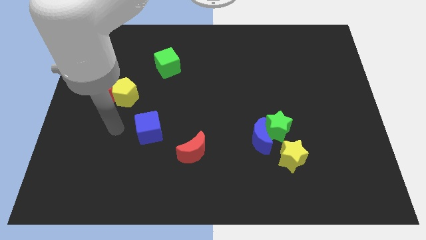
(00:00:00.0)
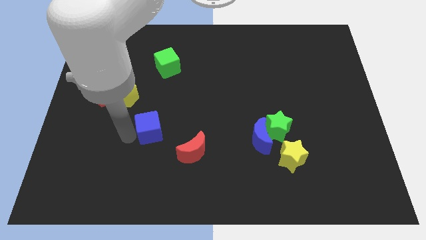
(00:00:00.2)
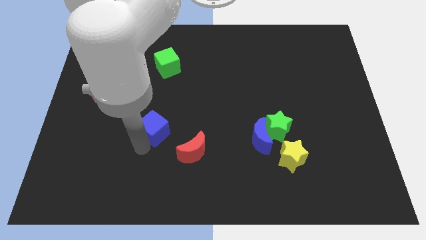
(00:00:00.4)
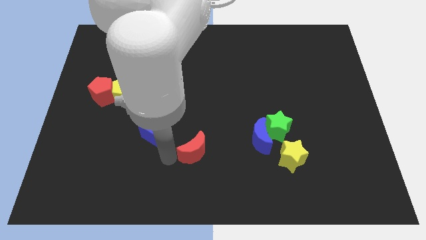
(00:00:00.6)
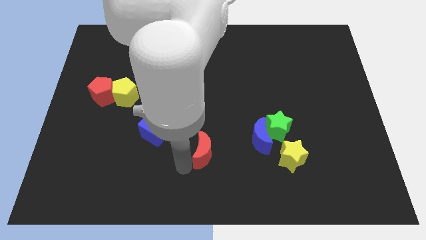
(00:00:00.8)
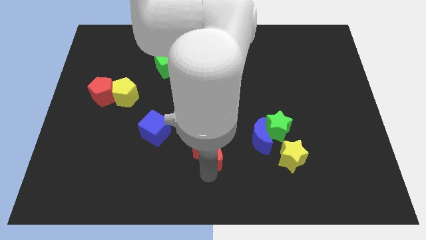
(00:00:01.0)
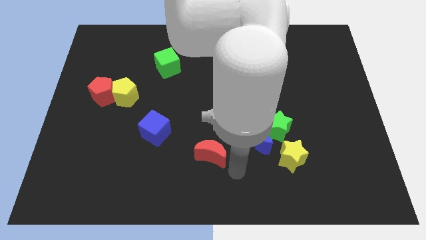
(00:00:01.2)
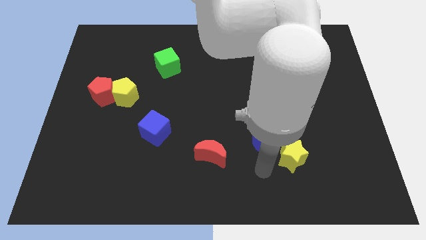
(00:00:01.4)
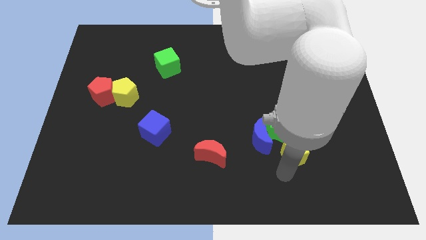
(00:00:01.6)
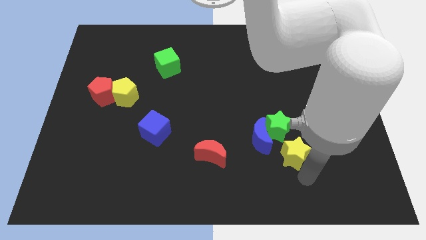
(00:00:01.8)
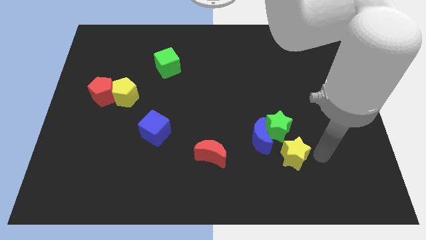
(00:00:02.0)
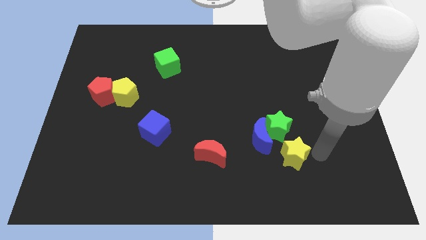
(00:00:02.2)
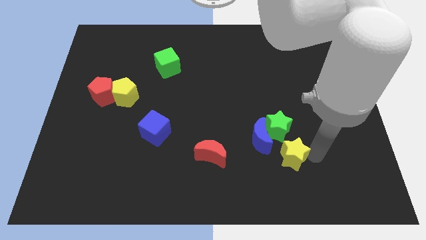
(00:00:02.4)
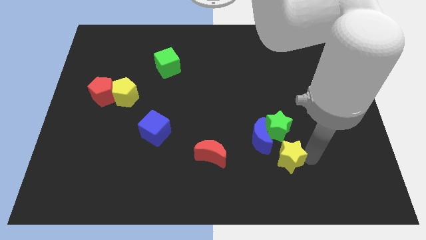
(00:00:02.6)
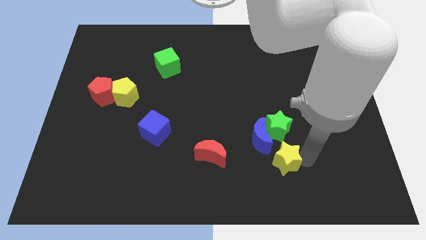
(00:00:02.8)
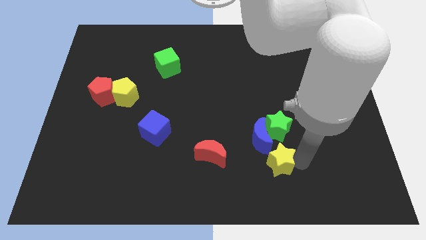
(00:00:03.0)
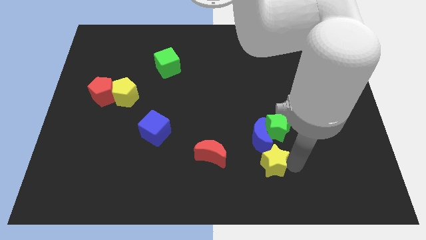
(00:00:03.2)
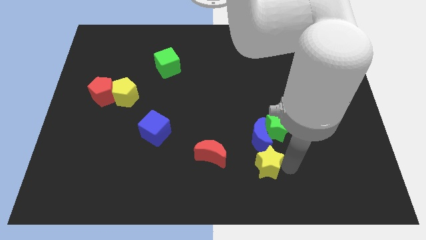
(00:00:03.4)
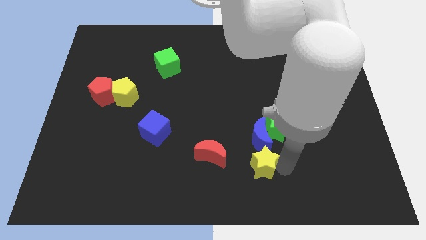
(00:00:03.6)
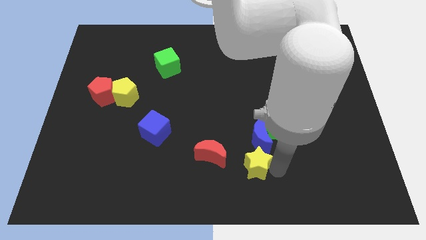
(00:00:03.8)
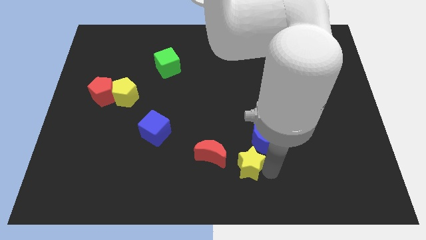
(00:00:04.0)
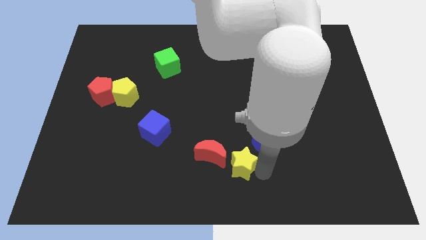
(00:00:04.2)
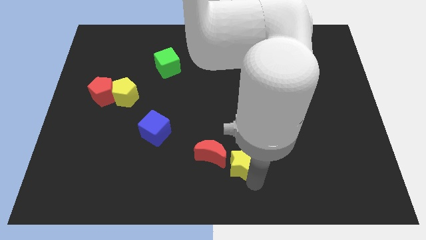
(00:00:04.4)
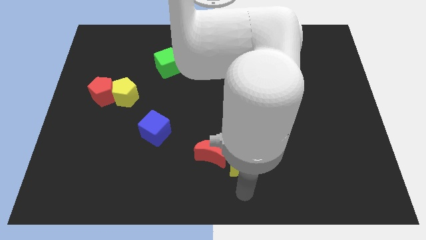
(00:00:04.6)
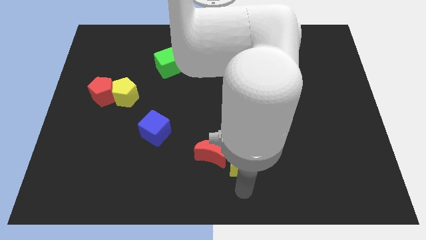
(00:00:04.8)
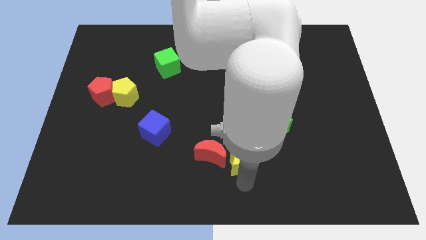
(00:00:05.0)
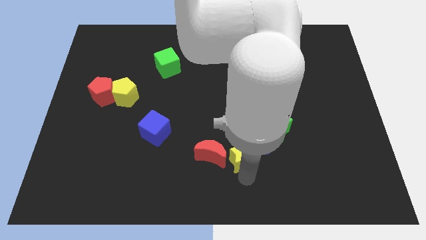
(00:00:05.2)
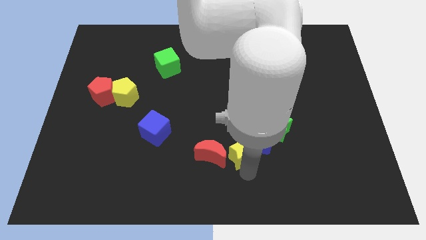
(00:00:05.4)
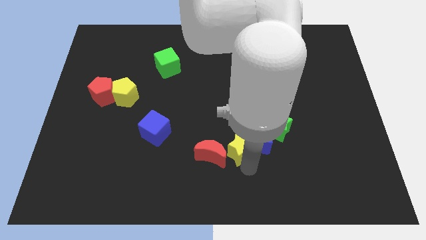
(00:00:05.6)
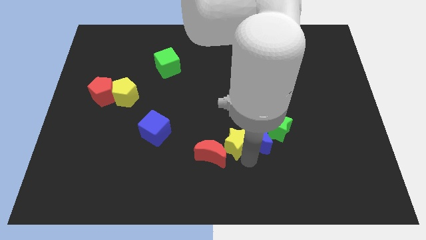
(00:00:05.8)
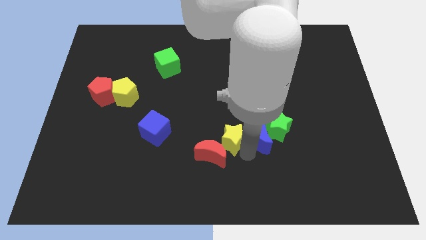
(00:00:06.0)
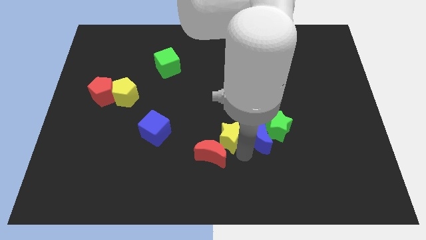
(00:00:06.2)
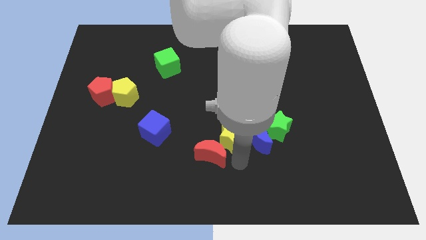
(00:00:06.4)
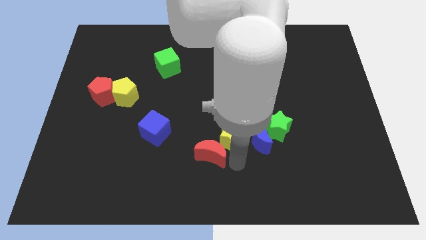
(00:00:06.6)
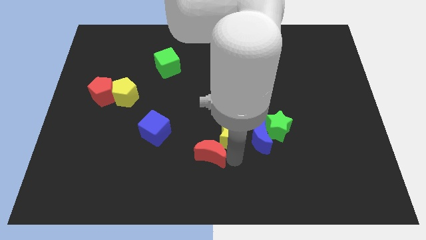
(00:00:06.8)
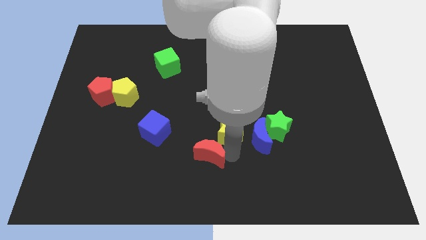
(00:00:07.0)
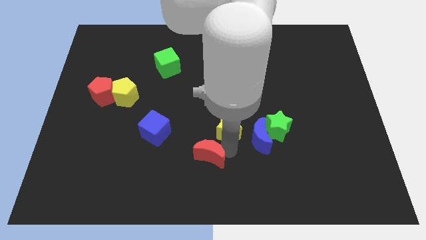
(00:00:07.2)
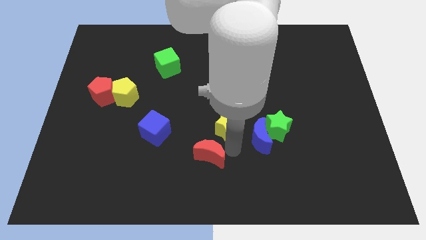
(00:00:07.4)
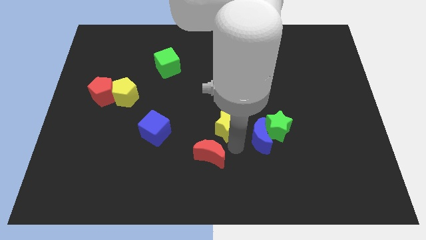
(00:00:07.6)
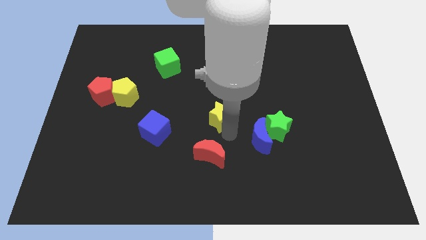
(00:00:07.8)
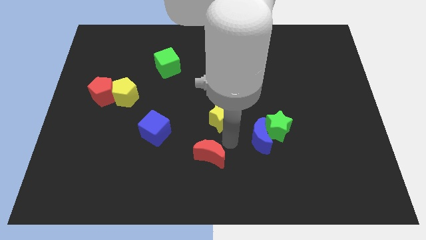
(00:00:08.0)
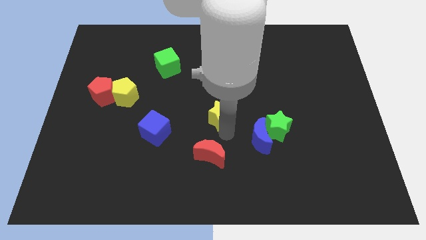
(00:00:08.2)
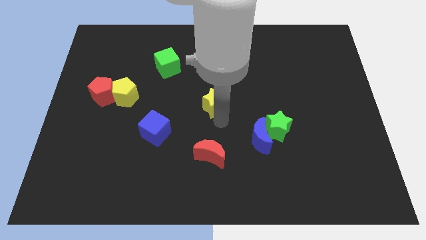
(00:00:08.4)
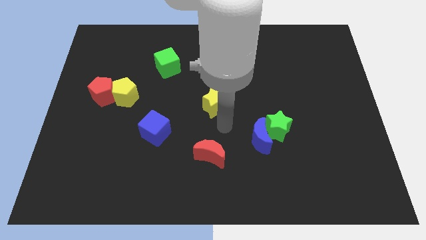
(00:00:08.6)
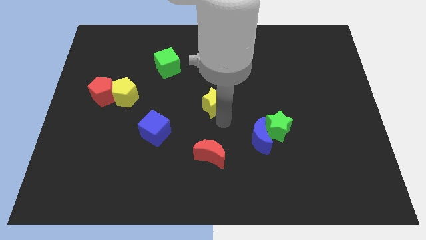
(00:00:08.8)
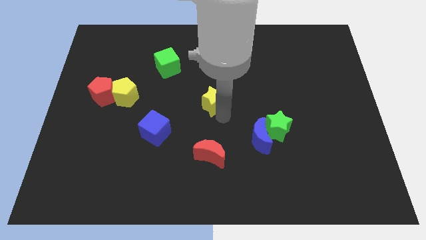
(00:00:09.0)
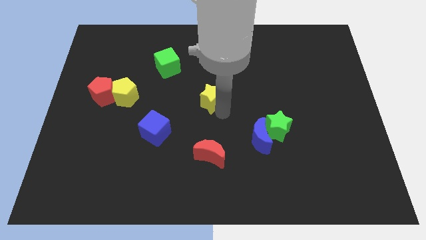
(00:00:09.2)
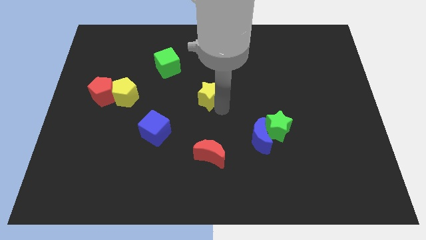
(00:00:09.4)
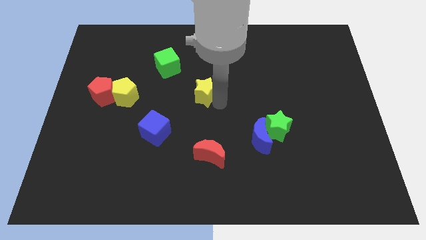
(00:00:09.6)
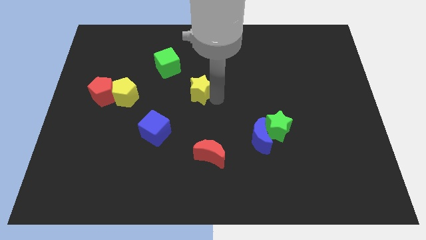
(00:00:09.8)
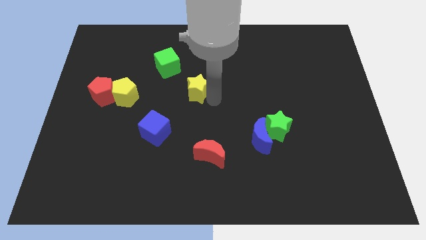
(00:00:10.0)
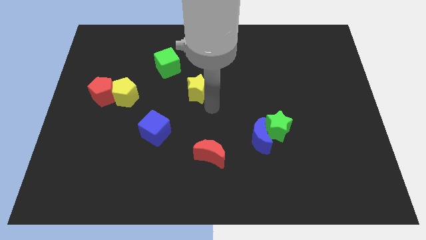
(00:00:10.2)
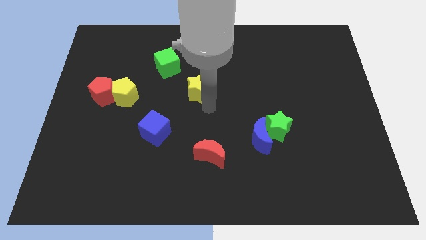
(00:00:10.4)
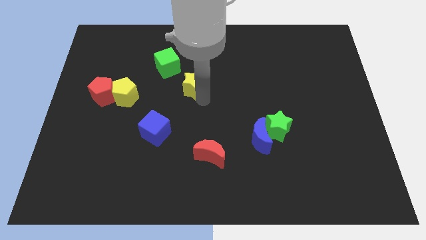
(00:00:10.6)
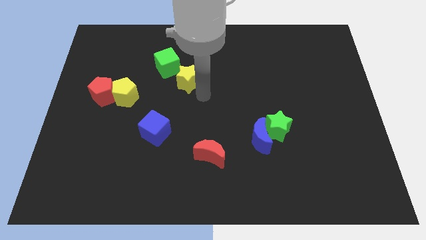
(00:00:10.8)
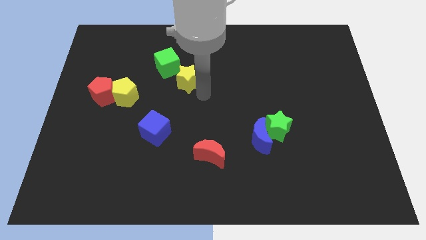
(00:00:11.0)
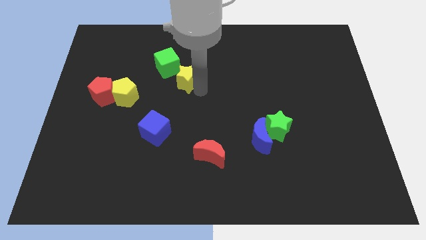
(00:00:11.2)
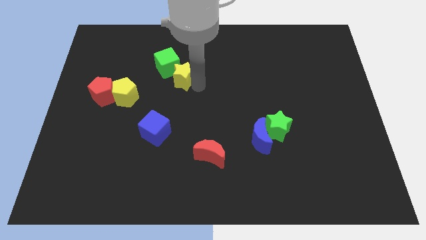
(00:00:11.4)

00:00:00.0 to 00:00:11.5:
push the yellow star to the green cube
